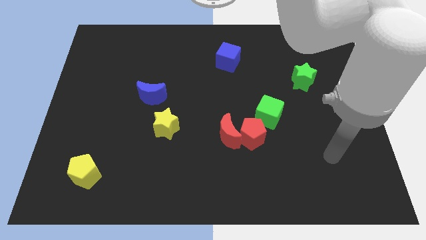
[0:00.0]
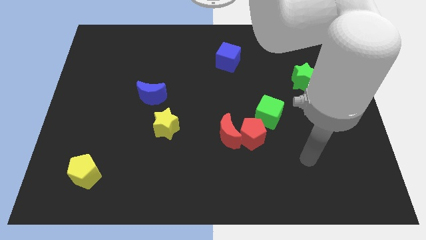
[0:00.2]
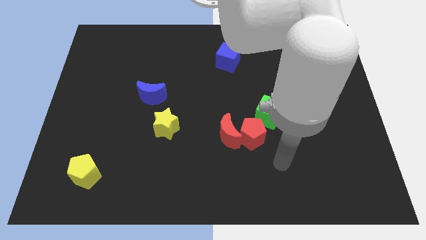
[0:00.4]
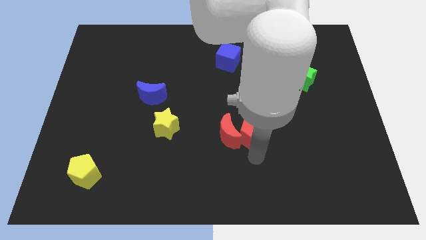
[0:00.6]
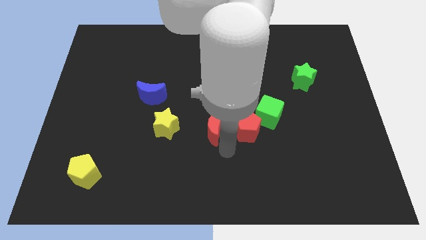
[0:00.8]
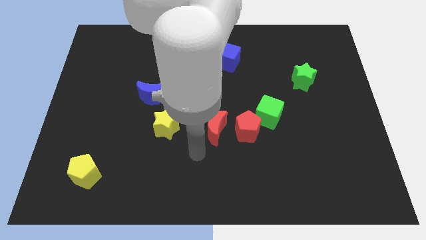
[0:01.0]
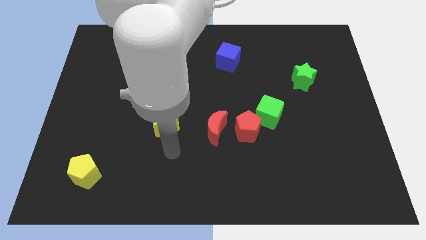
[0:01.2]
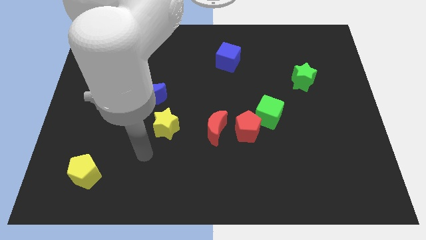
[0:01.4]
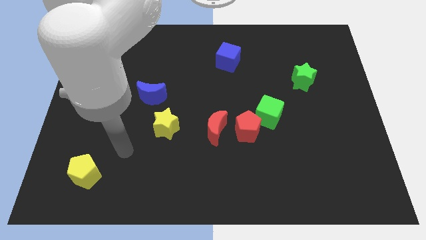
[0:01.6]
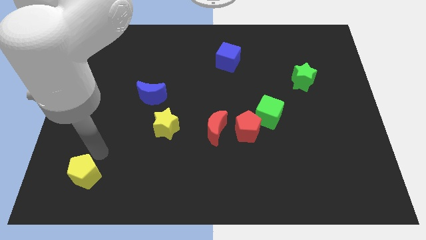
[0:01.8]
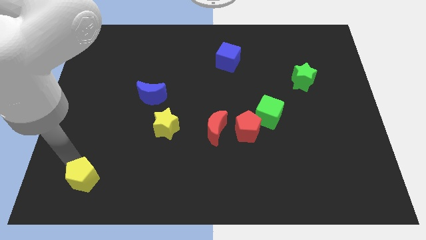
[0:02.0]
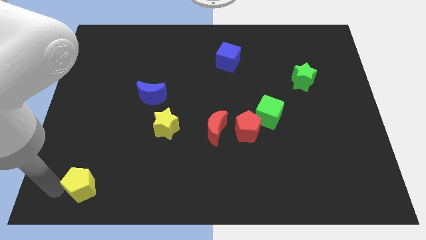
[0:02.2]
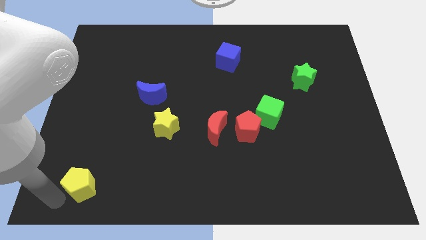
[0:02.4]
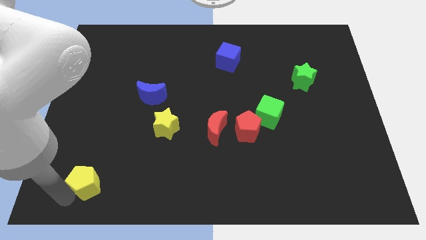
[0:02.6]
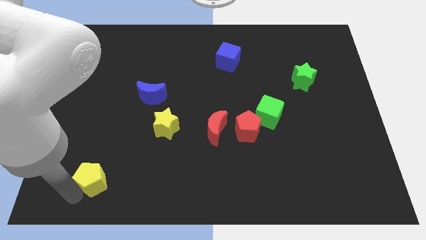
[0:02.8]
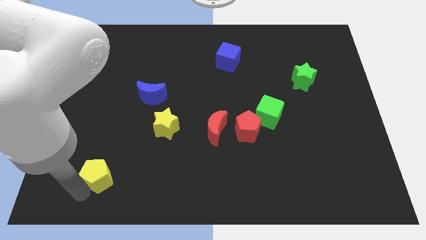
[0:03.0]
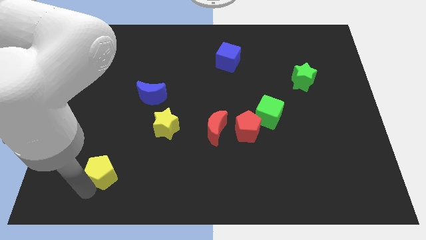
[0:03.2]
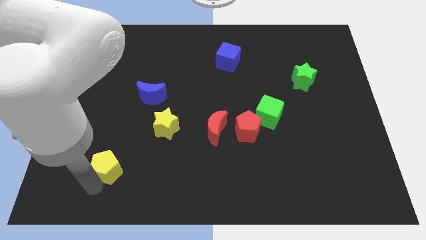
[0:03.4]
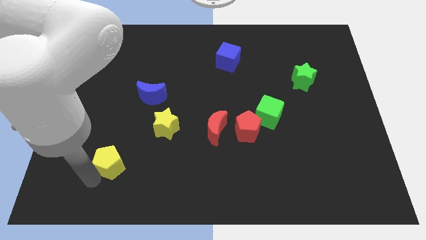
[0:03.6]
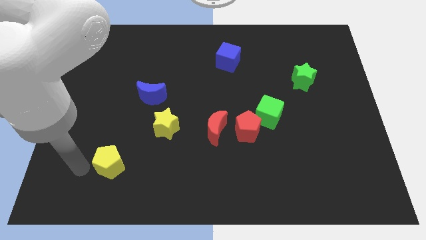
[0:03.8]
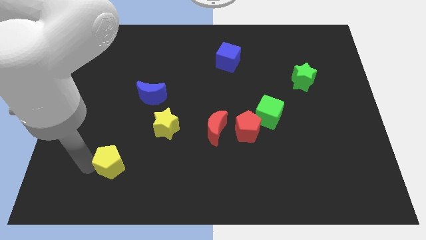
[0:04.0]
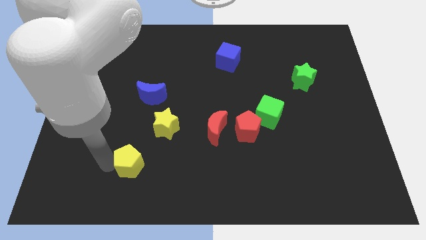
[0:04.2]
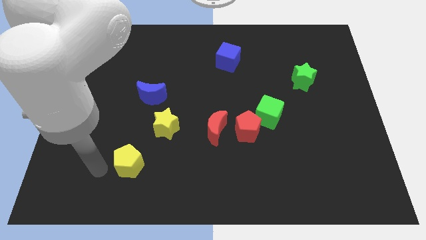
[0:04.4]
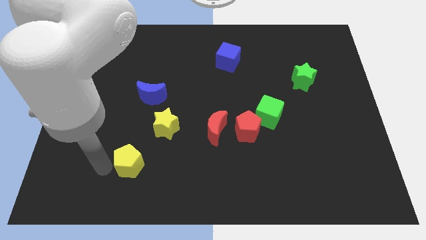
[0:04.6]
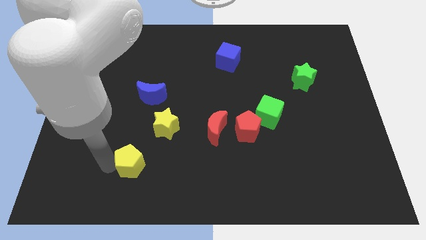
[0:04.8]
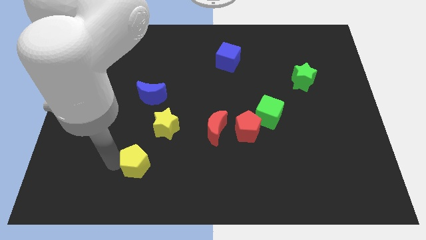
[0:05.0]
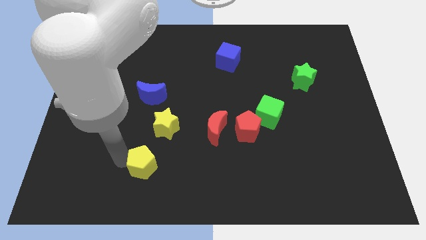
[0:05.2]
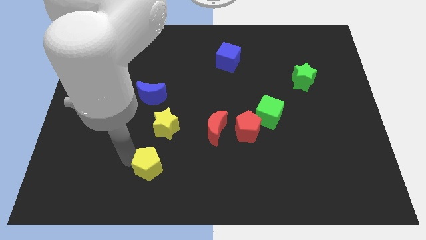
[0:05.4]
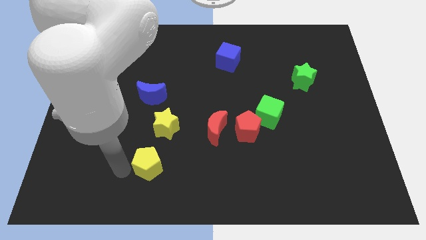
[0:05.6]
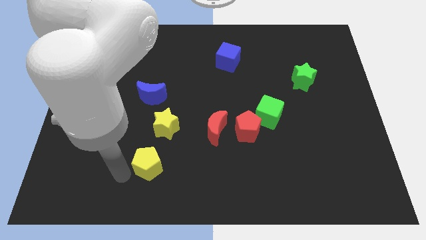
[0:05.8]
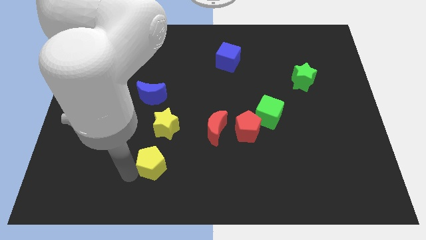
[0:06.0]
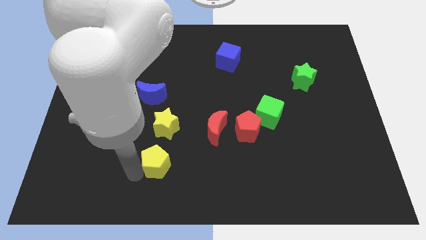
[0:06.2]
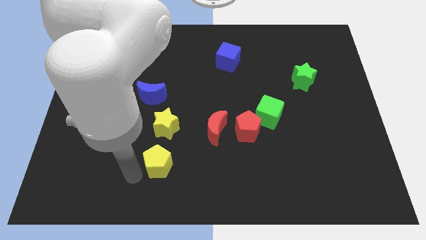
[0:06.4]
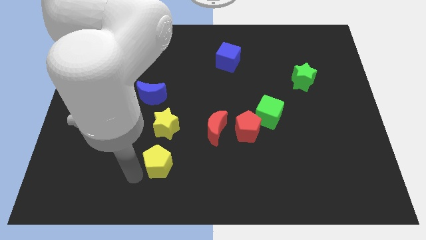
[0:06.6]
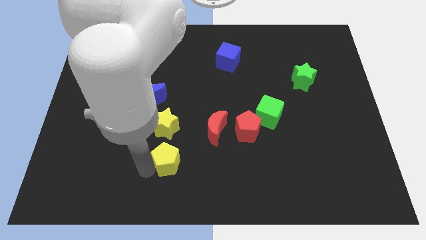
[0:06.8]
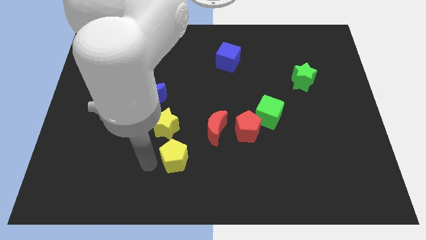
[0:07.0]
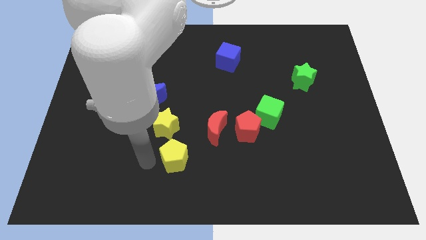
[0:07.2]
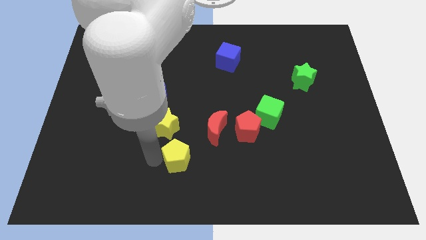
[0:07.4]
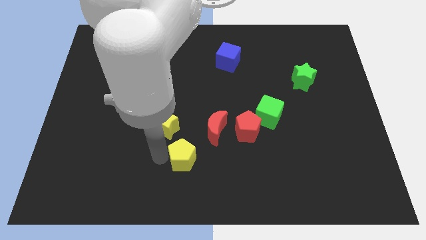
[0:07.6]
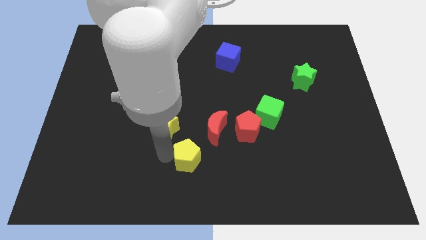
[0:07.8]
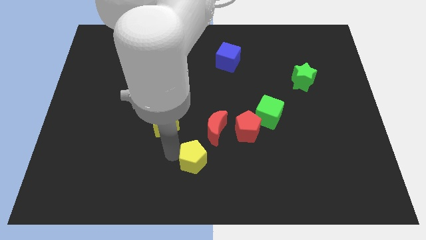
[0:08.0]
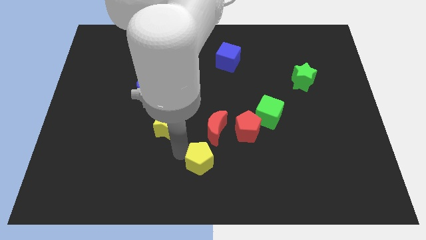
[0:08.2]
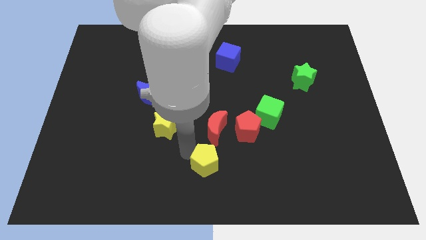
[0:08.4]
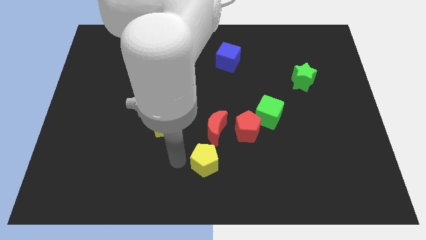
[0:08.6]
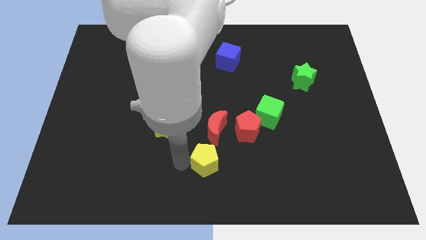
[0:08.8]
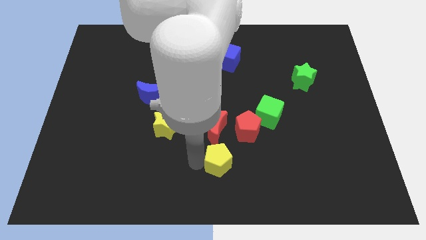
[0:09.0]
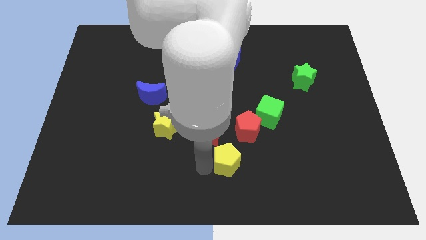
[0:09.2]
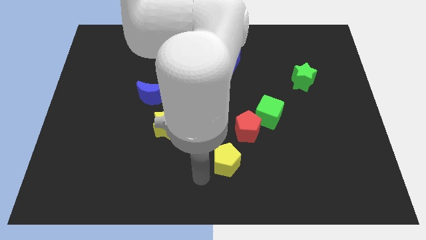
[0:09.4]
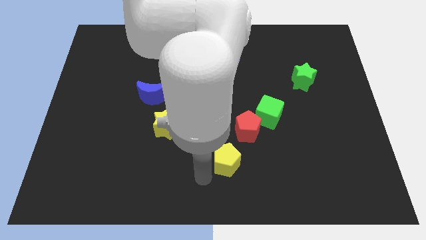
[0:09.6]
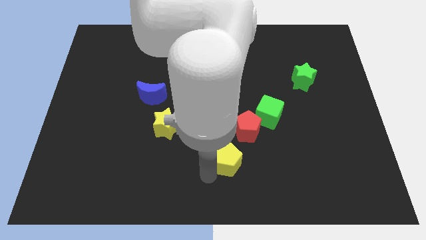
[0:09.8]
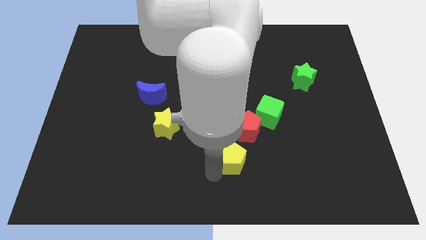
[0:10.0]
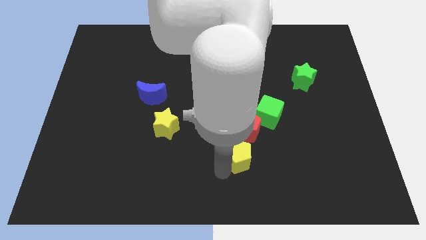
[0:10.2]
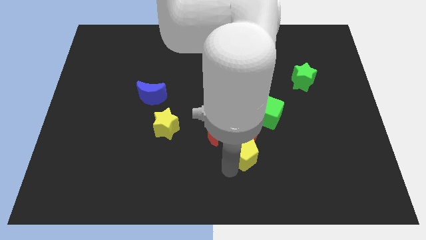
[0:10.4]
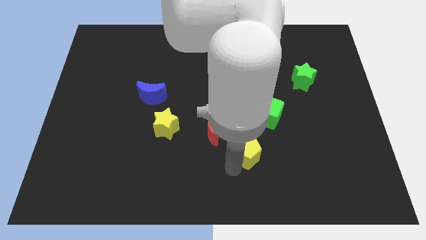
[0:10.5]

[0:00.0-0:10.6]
slide the yellow pentagon to the red pentagon

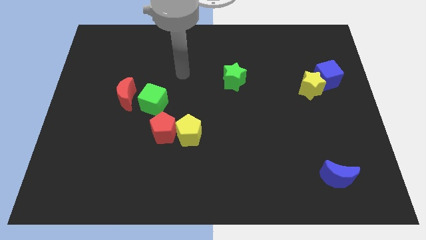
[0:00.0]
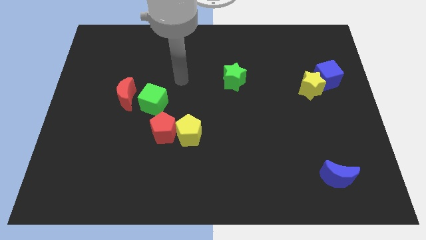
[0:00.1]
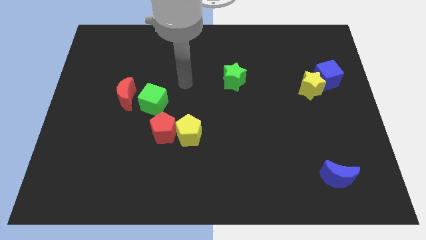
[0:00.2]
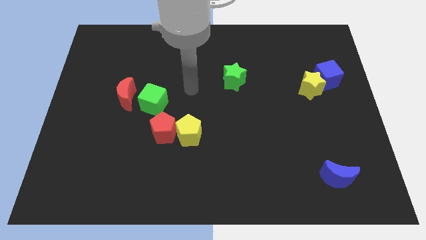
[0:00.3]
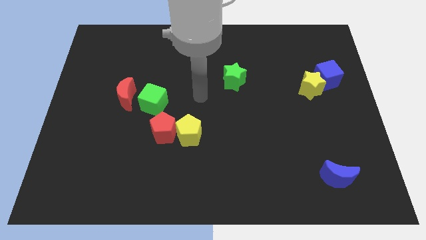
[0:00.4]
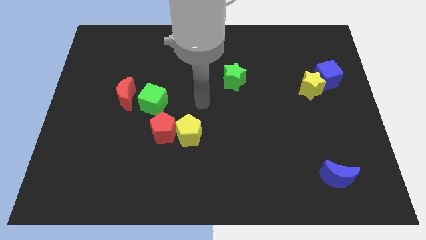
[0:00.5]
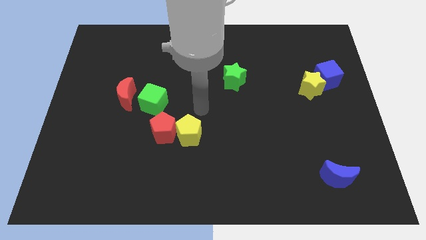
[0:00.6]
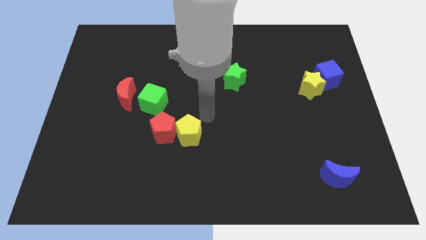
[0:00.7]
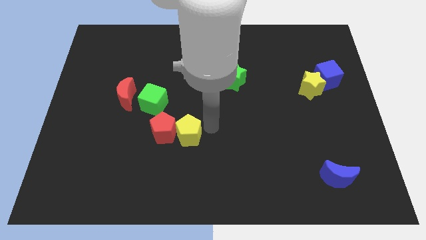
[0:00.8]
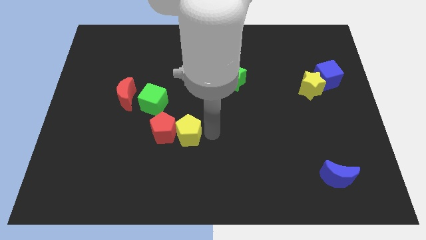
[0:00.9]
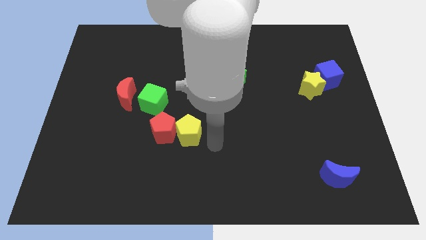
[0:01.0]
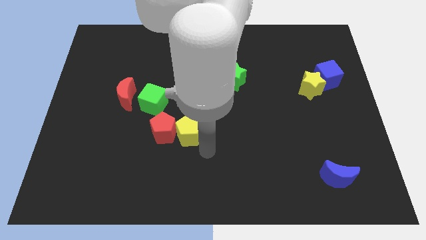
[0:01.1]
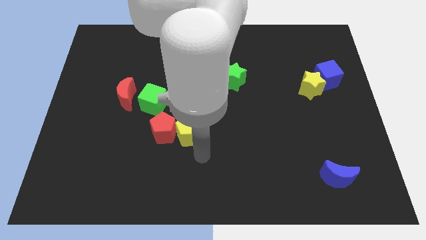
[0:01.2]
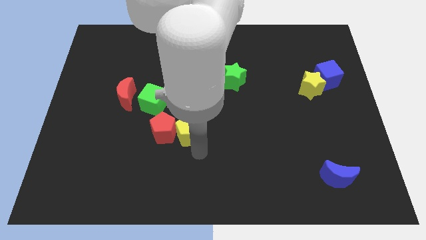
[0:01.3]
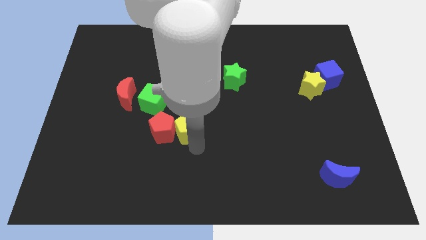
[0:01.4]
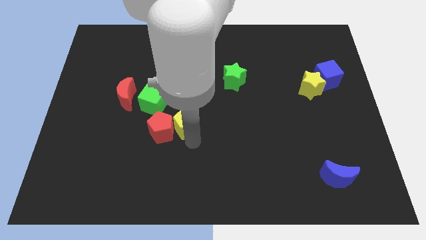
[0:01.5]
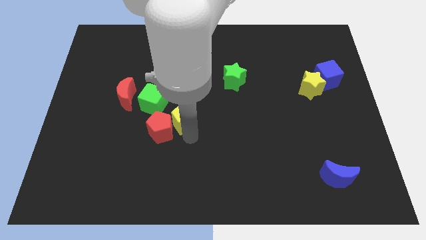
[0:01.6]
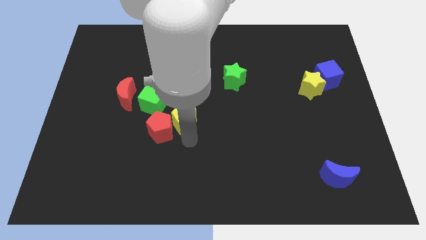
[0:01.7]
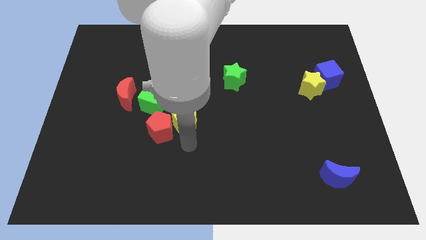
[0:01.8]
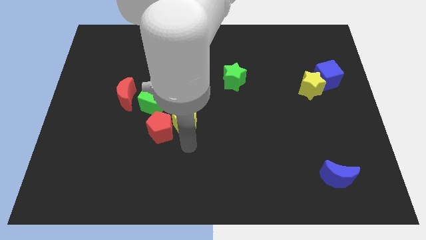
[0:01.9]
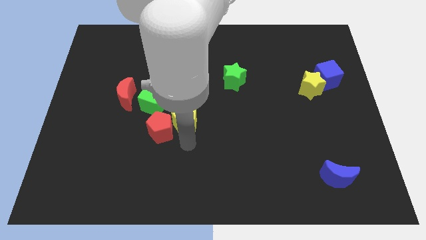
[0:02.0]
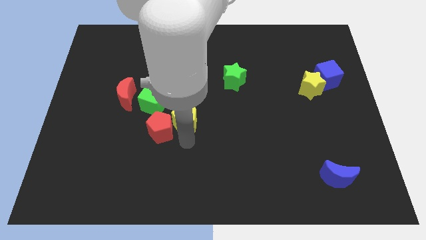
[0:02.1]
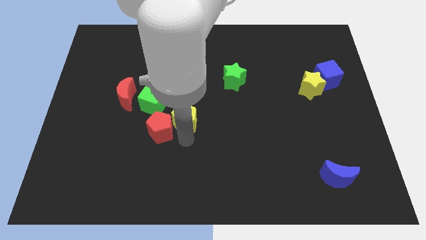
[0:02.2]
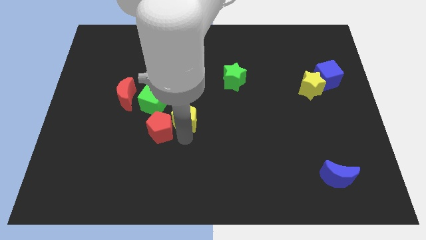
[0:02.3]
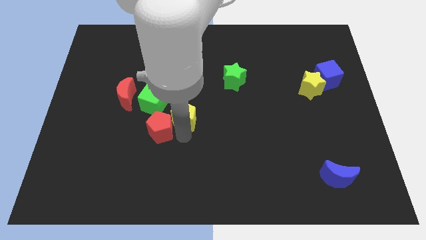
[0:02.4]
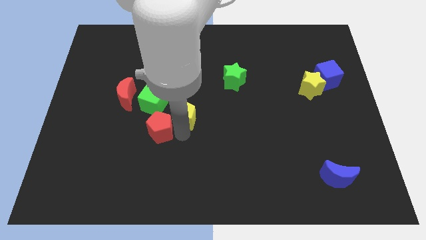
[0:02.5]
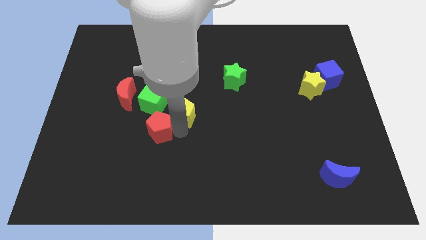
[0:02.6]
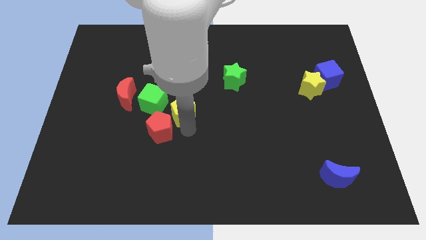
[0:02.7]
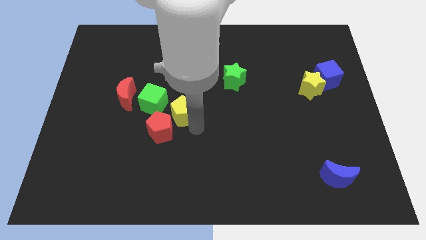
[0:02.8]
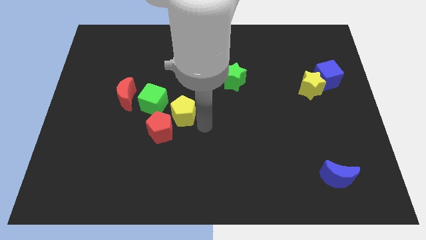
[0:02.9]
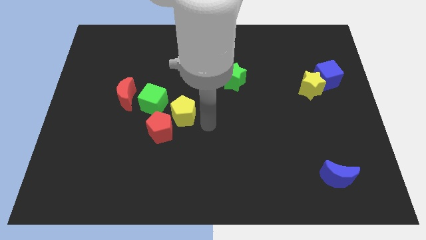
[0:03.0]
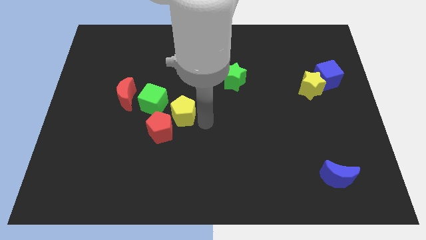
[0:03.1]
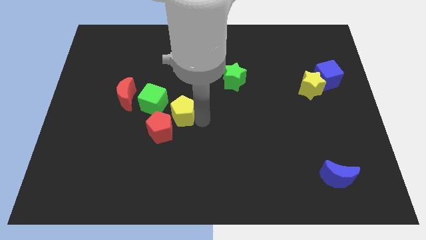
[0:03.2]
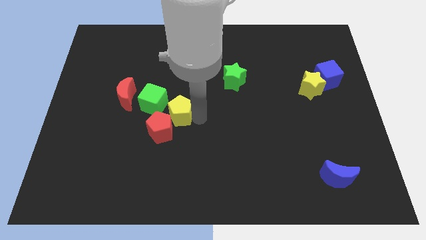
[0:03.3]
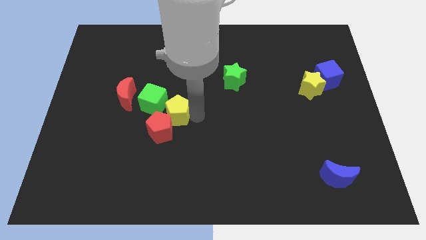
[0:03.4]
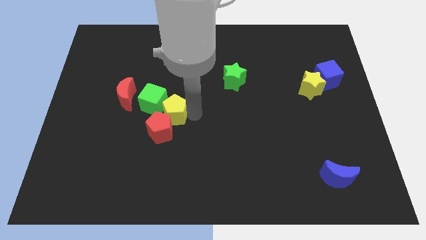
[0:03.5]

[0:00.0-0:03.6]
slide the yellow pentagon towards the green cube
